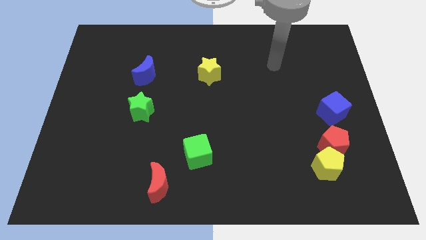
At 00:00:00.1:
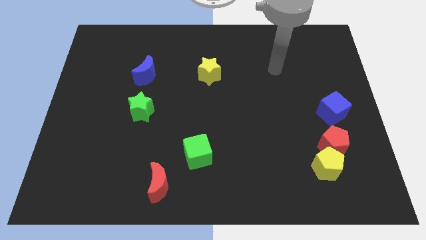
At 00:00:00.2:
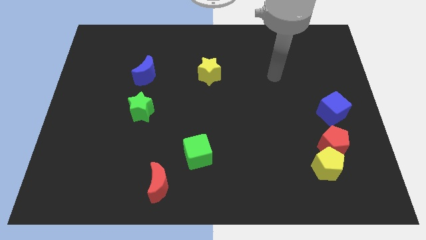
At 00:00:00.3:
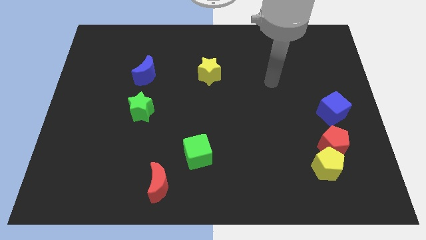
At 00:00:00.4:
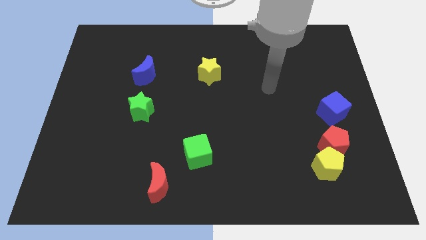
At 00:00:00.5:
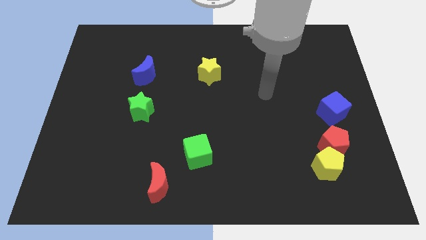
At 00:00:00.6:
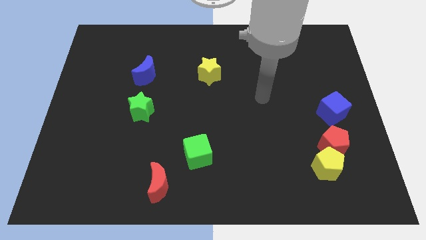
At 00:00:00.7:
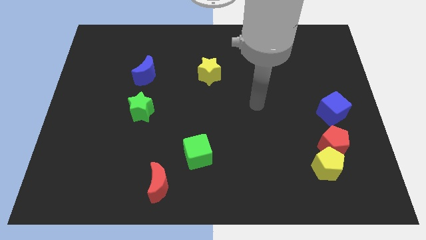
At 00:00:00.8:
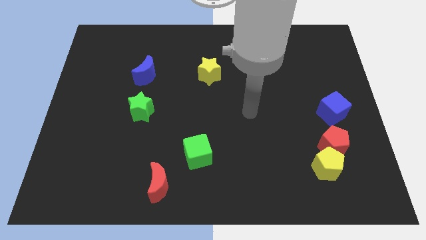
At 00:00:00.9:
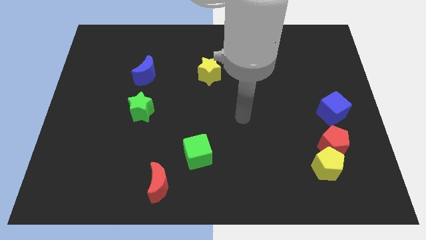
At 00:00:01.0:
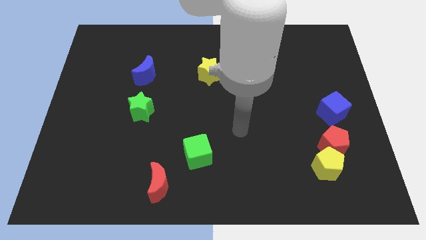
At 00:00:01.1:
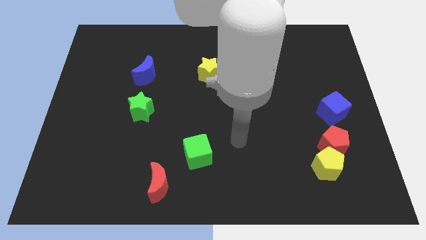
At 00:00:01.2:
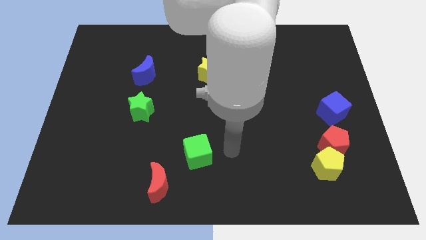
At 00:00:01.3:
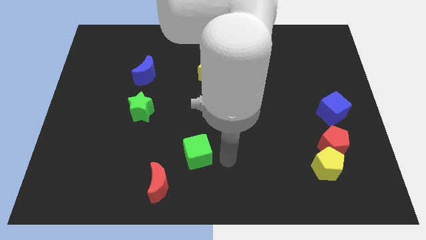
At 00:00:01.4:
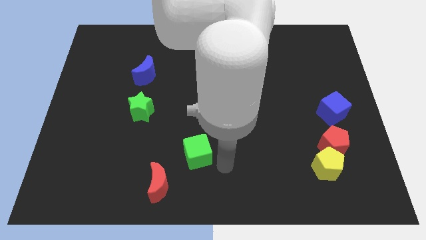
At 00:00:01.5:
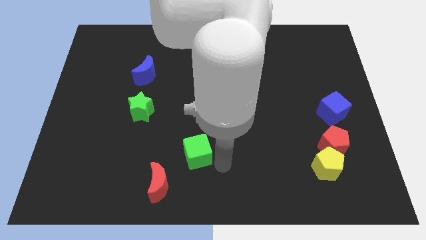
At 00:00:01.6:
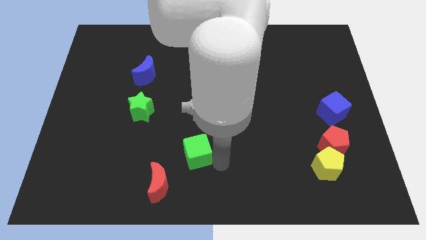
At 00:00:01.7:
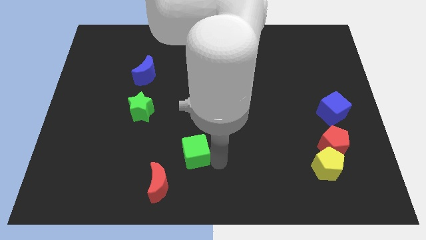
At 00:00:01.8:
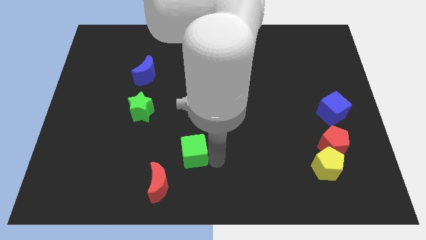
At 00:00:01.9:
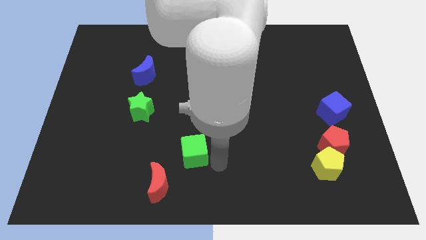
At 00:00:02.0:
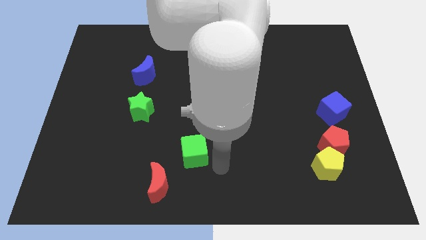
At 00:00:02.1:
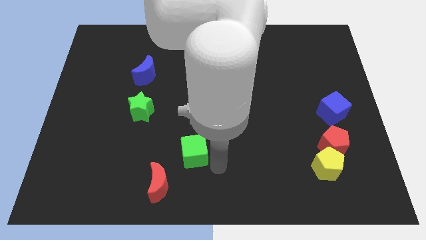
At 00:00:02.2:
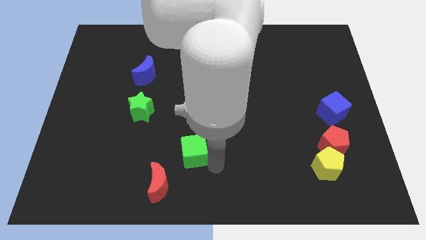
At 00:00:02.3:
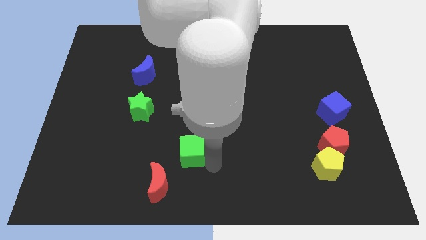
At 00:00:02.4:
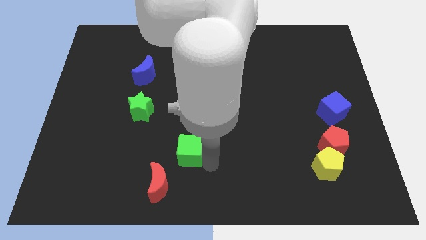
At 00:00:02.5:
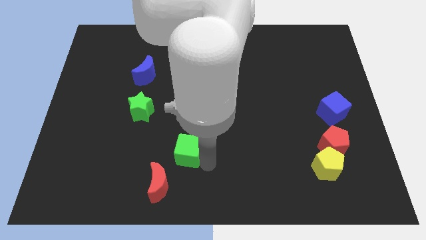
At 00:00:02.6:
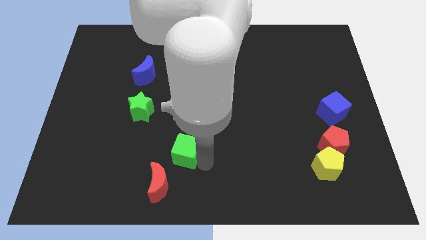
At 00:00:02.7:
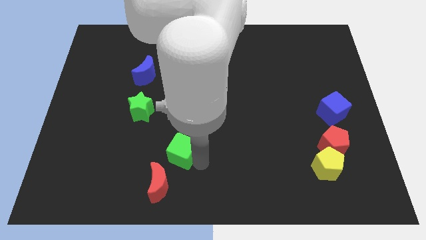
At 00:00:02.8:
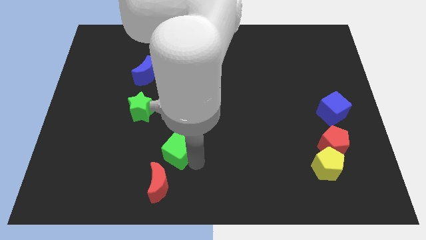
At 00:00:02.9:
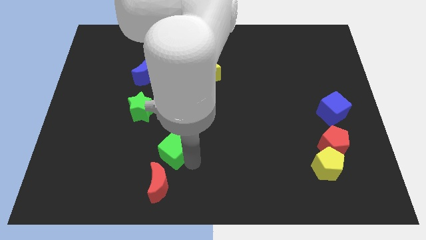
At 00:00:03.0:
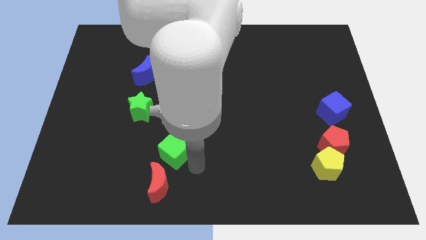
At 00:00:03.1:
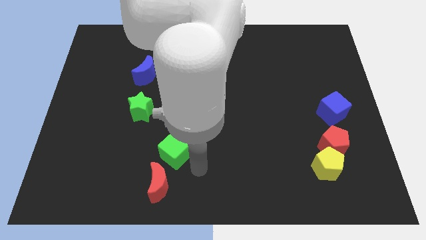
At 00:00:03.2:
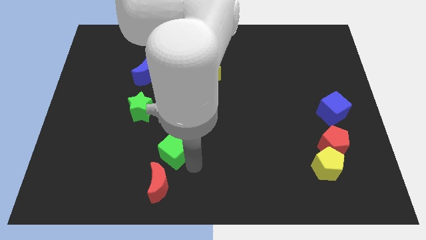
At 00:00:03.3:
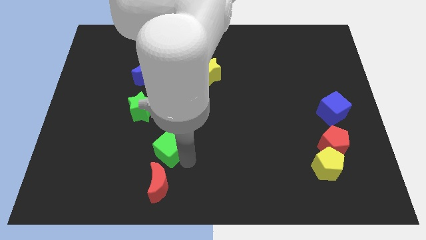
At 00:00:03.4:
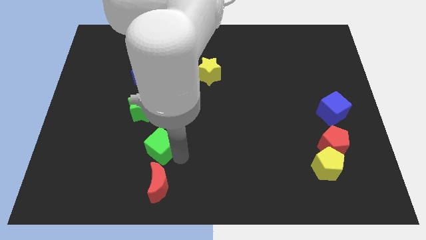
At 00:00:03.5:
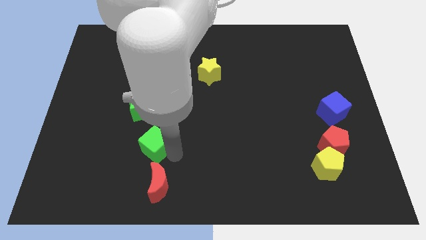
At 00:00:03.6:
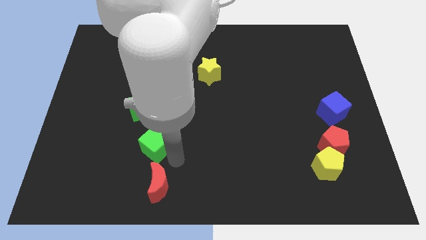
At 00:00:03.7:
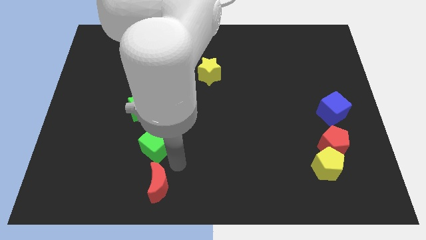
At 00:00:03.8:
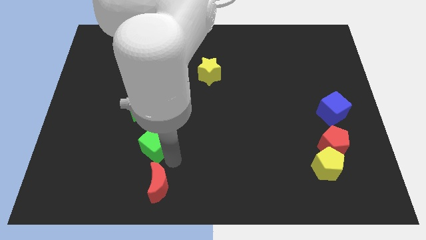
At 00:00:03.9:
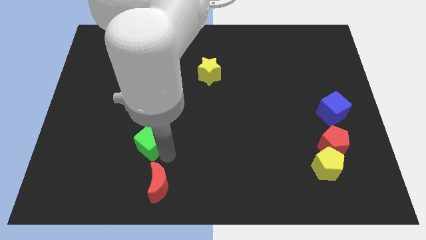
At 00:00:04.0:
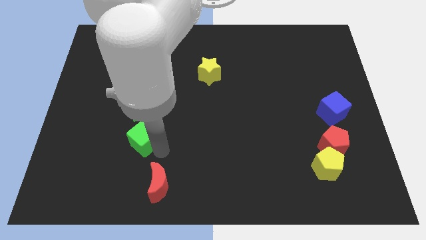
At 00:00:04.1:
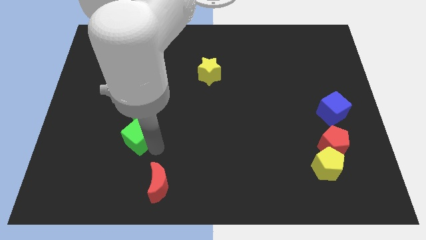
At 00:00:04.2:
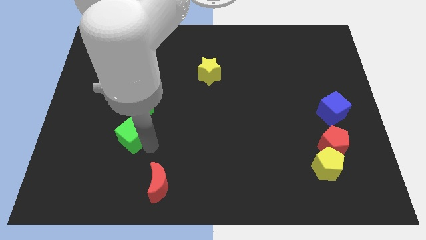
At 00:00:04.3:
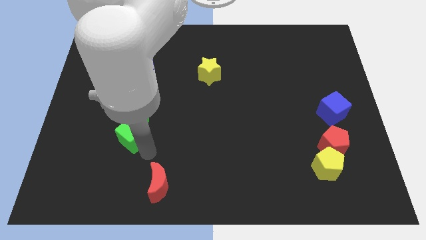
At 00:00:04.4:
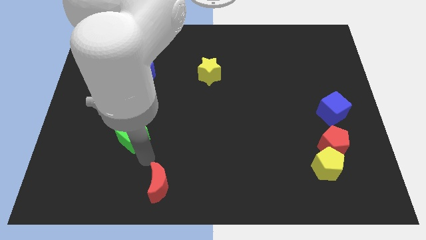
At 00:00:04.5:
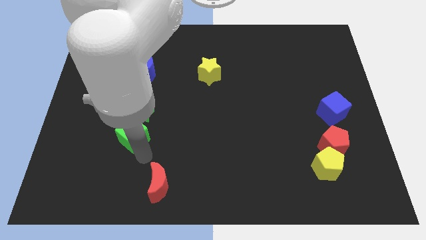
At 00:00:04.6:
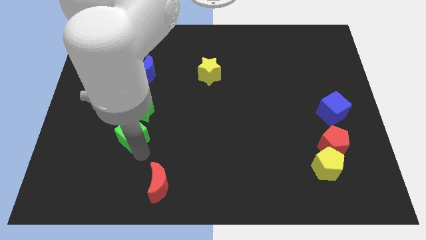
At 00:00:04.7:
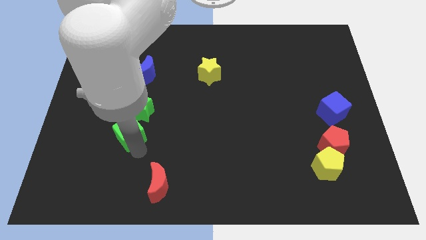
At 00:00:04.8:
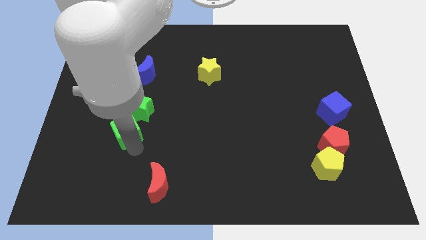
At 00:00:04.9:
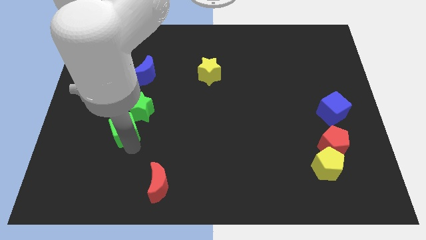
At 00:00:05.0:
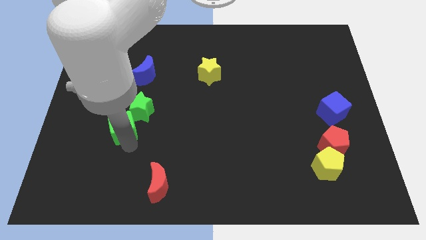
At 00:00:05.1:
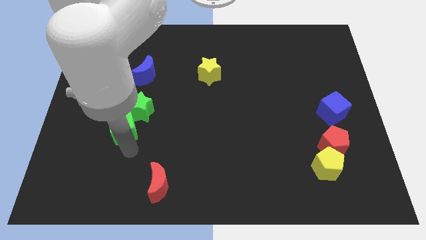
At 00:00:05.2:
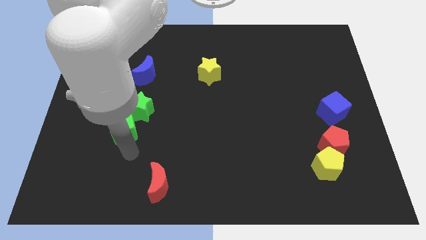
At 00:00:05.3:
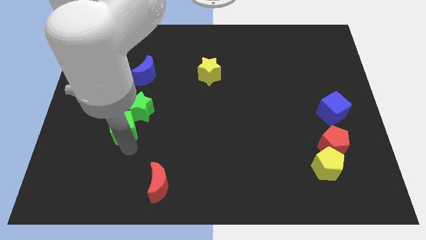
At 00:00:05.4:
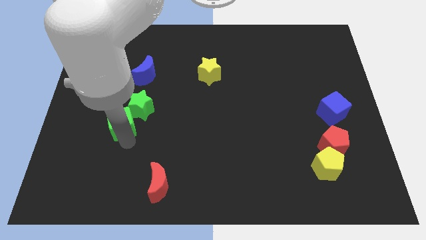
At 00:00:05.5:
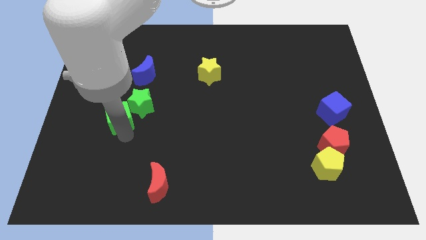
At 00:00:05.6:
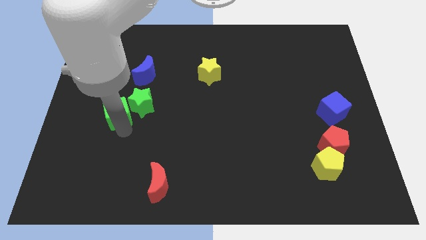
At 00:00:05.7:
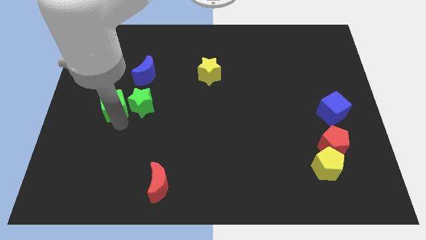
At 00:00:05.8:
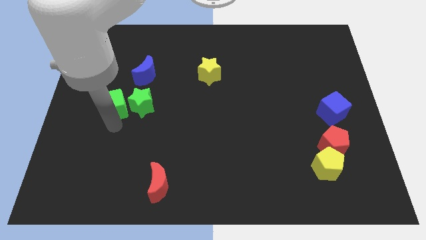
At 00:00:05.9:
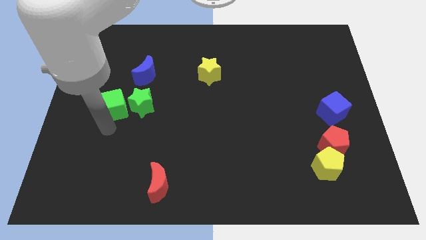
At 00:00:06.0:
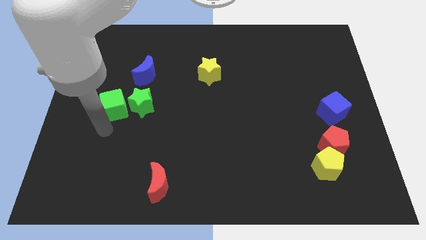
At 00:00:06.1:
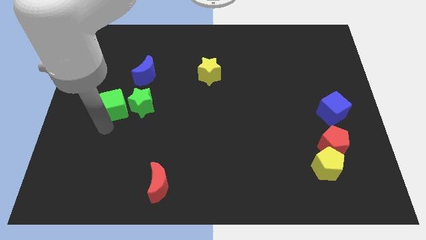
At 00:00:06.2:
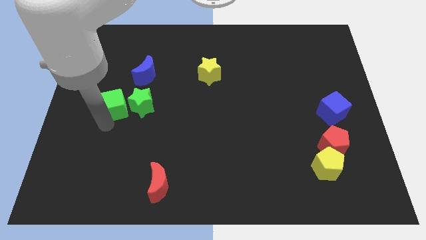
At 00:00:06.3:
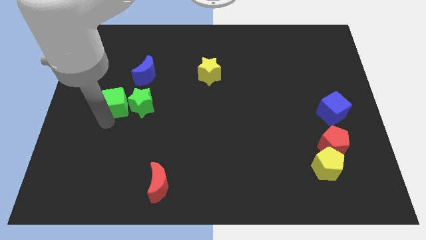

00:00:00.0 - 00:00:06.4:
slide the green cube to the top left of the green star
